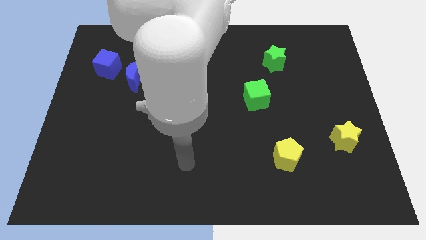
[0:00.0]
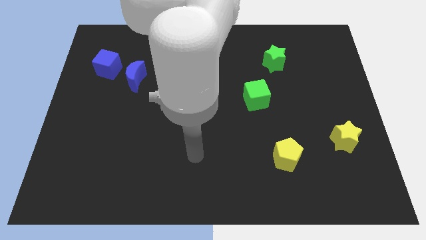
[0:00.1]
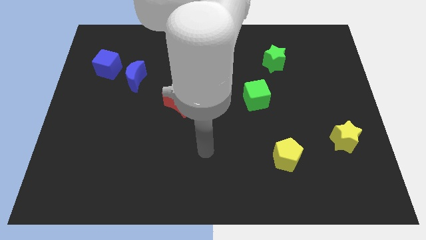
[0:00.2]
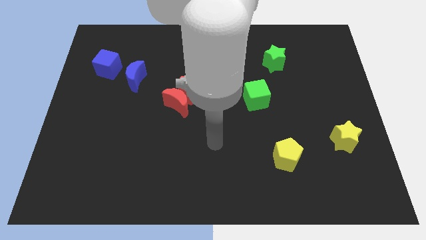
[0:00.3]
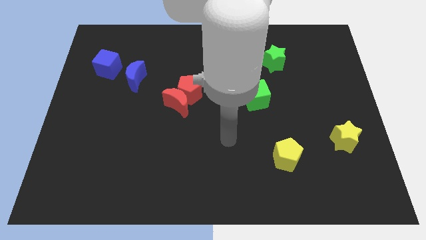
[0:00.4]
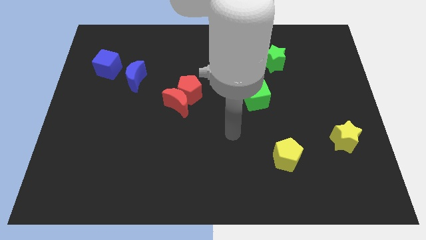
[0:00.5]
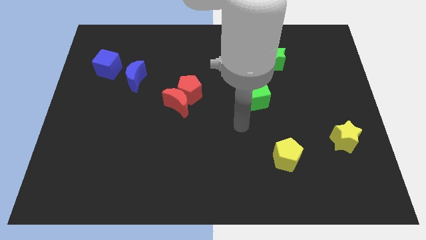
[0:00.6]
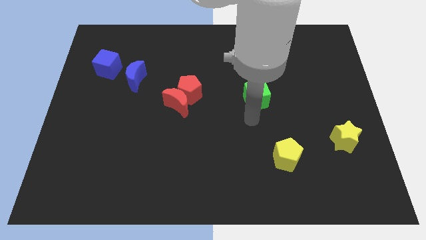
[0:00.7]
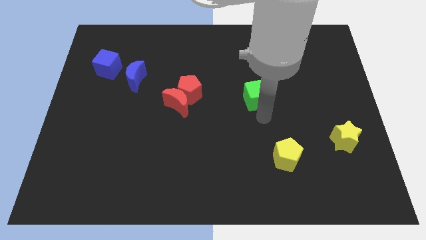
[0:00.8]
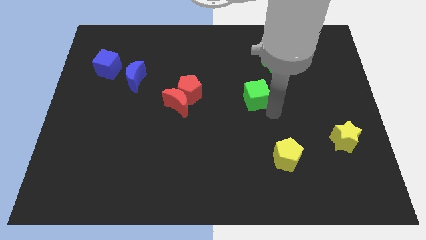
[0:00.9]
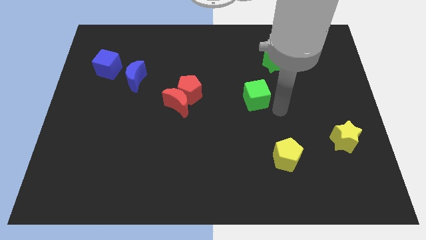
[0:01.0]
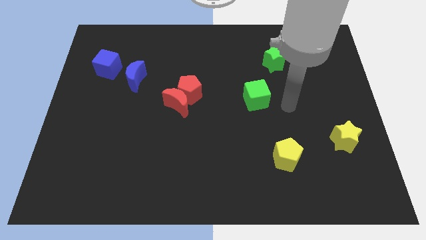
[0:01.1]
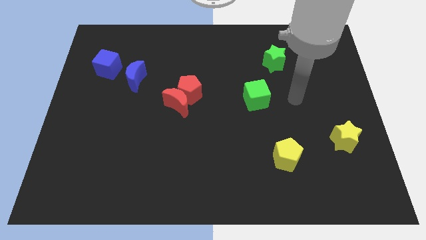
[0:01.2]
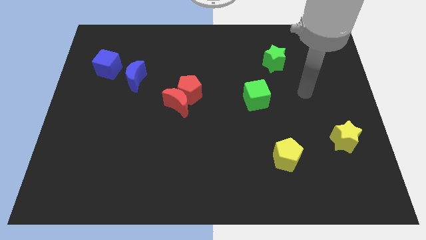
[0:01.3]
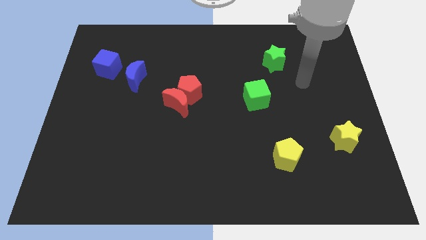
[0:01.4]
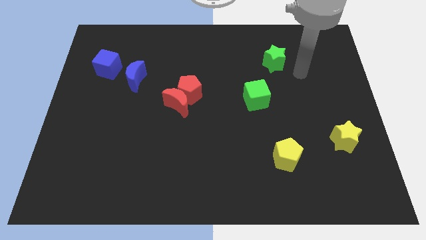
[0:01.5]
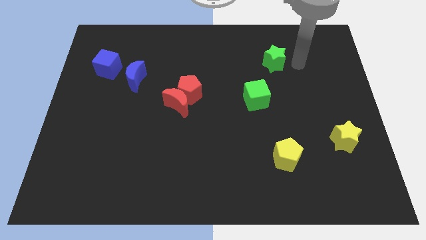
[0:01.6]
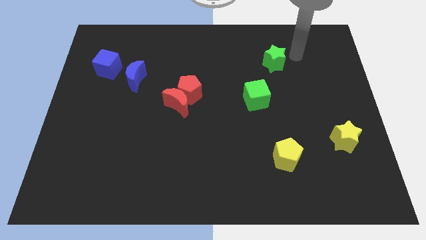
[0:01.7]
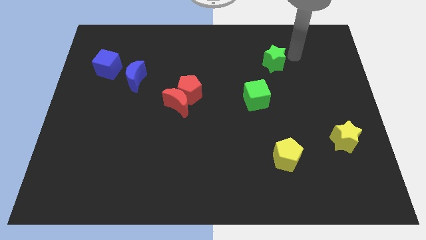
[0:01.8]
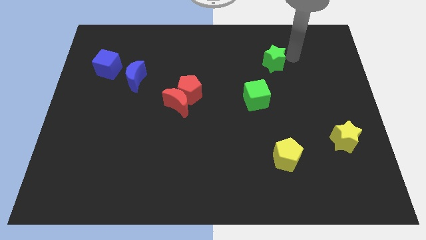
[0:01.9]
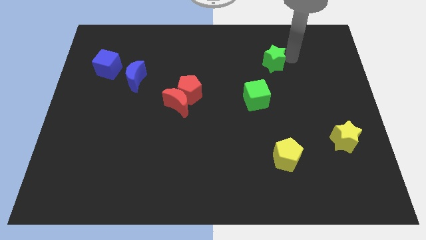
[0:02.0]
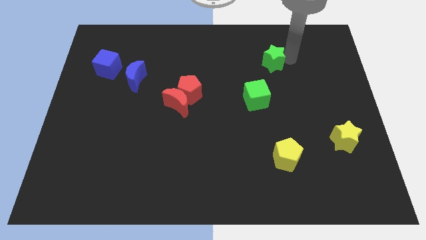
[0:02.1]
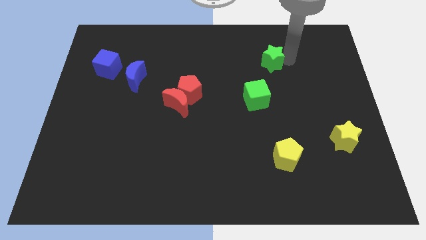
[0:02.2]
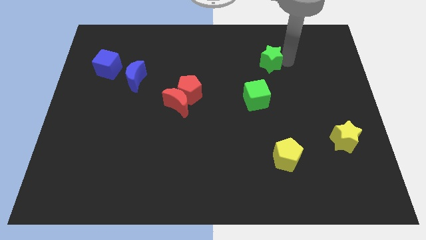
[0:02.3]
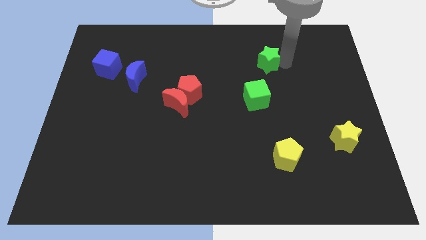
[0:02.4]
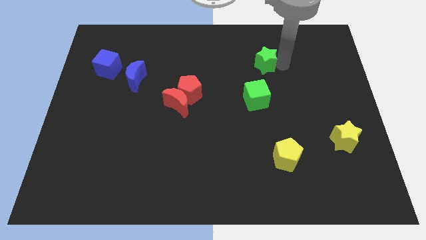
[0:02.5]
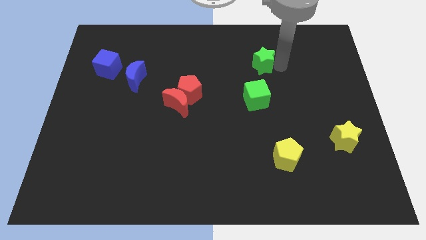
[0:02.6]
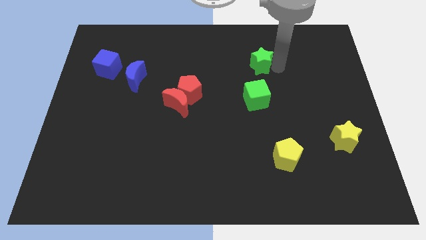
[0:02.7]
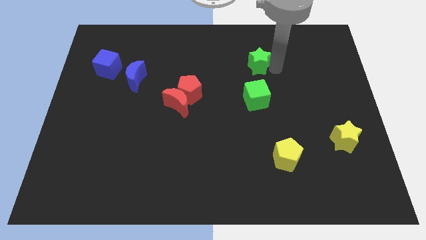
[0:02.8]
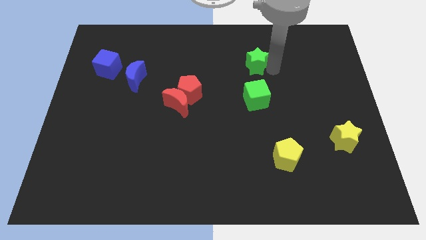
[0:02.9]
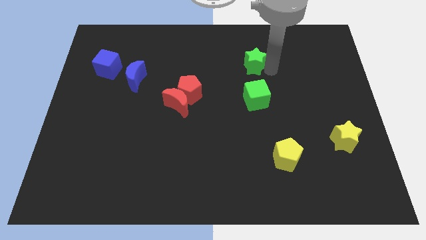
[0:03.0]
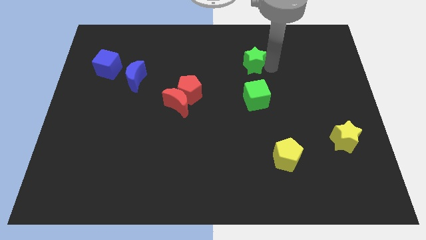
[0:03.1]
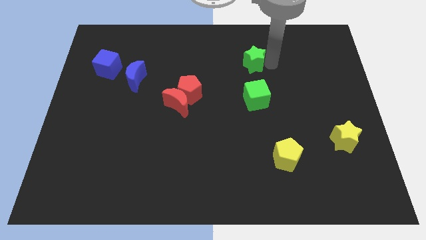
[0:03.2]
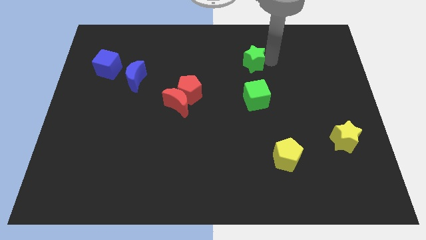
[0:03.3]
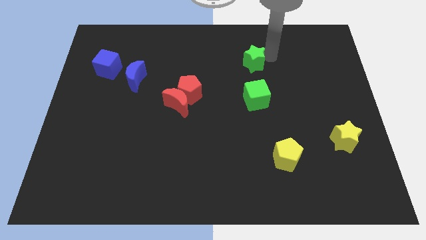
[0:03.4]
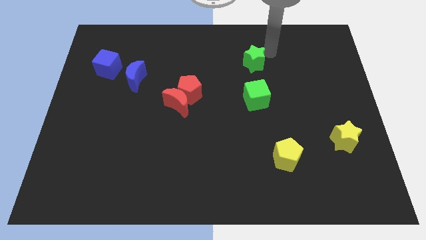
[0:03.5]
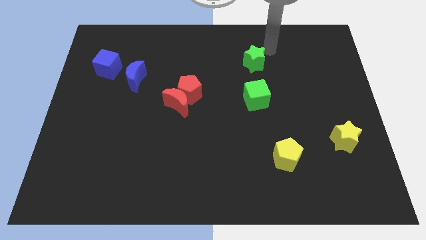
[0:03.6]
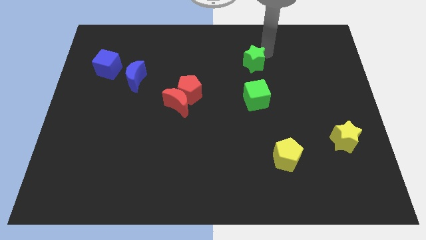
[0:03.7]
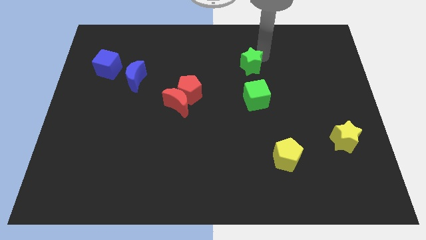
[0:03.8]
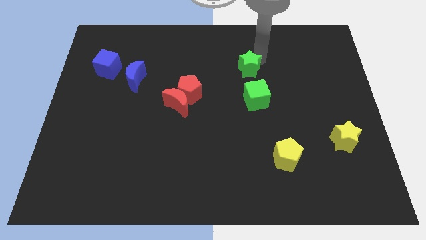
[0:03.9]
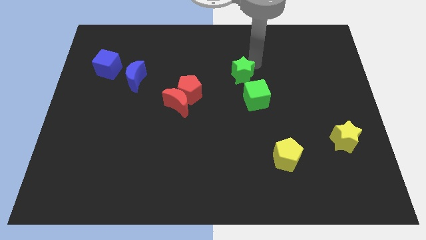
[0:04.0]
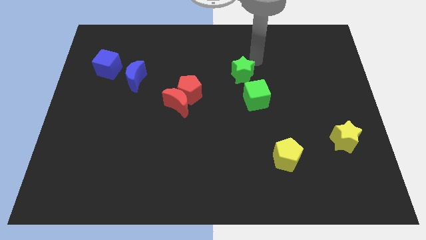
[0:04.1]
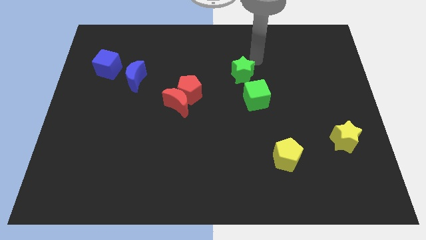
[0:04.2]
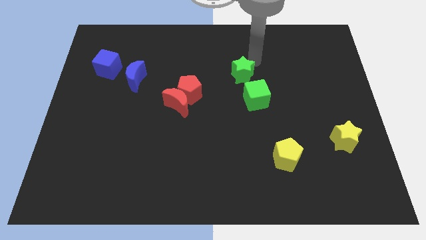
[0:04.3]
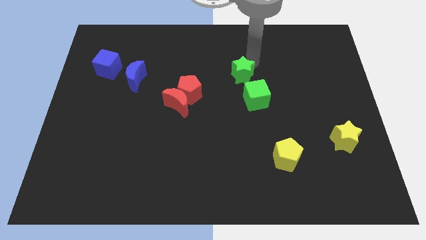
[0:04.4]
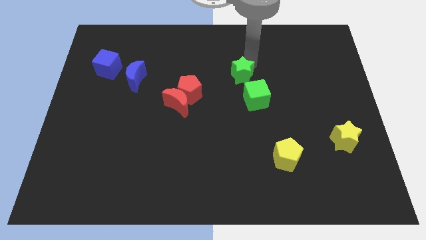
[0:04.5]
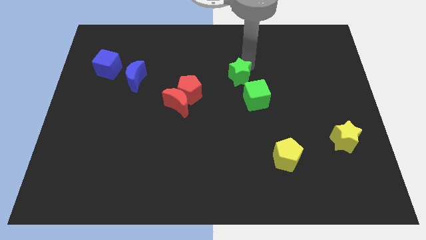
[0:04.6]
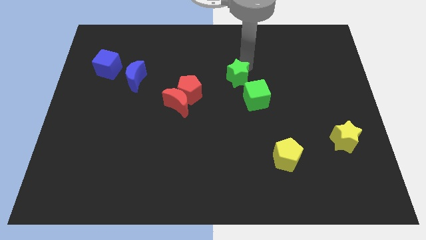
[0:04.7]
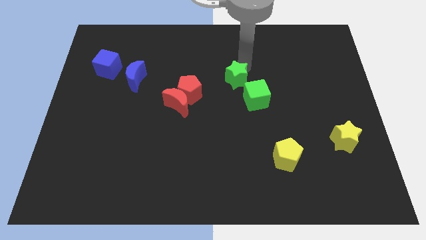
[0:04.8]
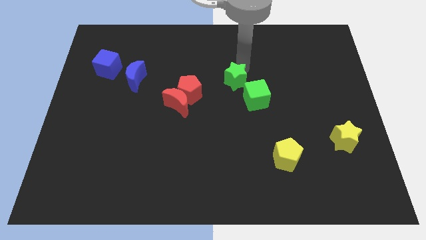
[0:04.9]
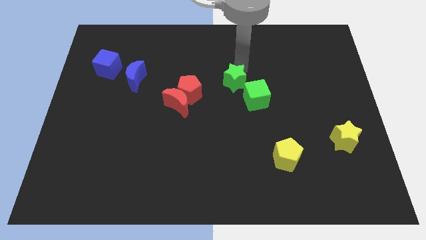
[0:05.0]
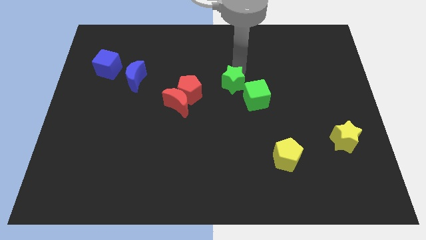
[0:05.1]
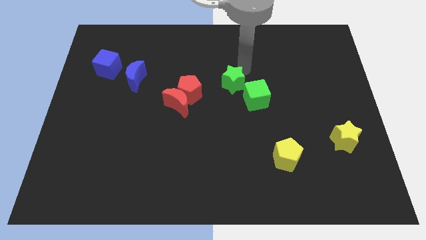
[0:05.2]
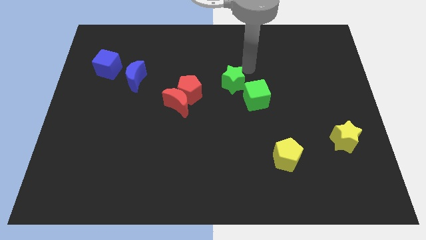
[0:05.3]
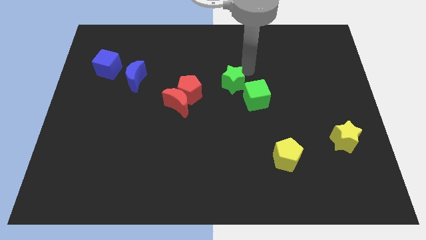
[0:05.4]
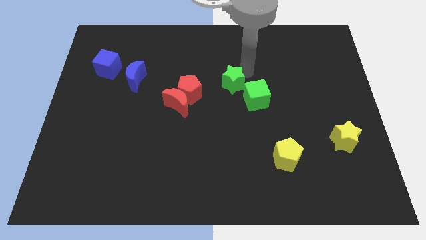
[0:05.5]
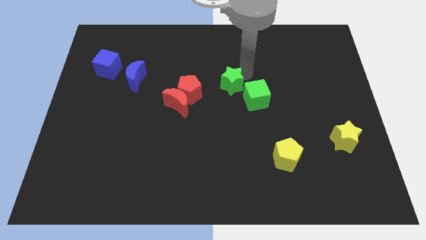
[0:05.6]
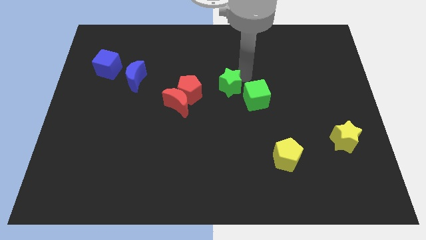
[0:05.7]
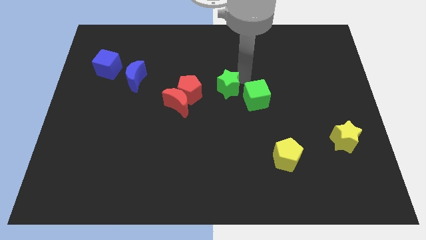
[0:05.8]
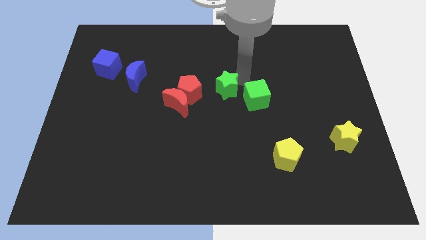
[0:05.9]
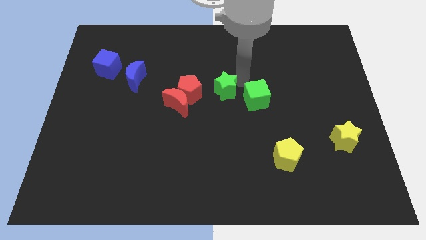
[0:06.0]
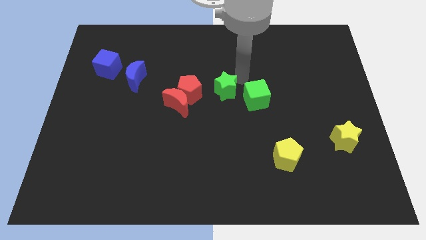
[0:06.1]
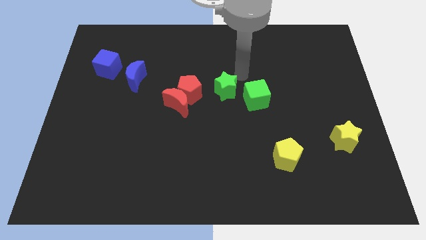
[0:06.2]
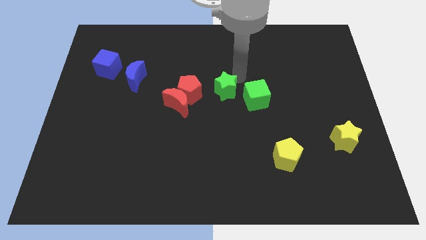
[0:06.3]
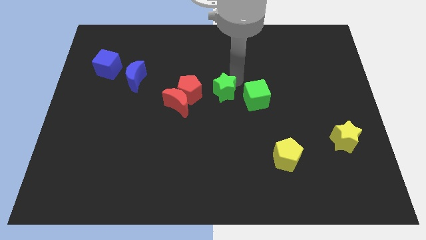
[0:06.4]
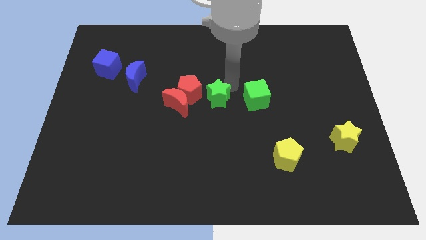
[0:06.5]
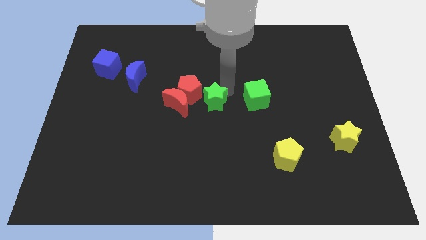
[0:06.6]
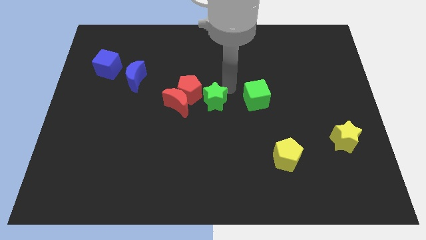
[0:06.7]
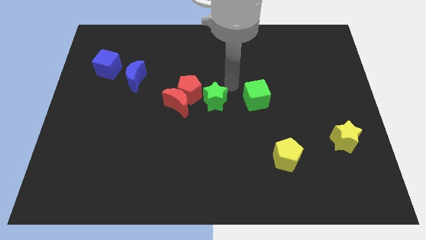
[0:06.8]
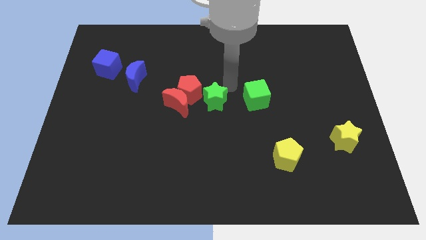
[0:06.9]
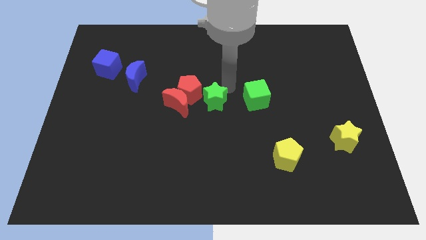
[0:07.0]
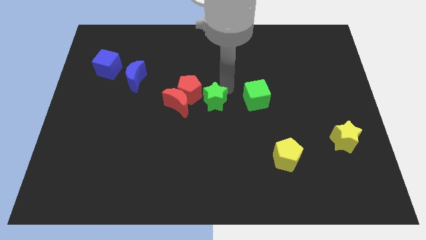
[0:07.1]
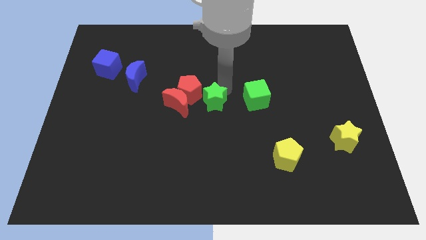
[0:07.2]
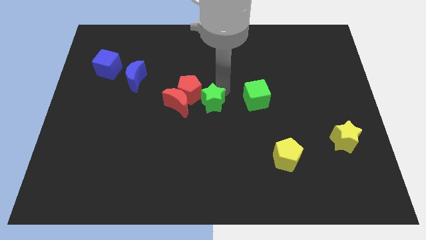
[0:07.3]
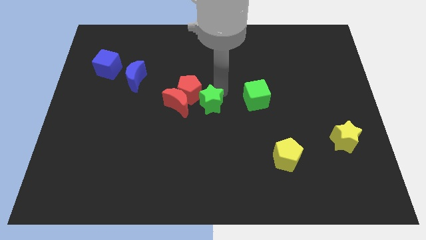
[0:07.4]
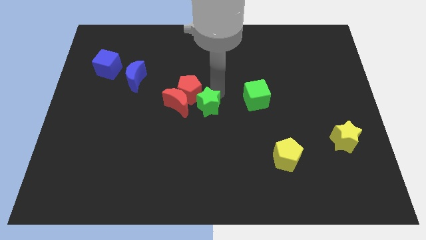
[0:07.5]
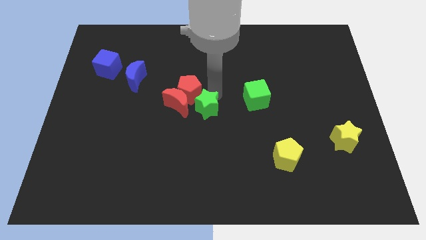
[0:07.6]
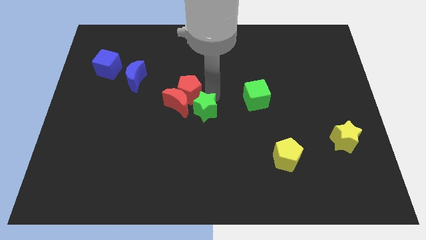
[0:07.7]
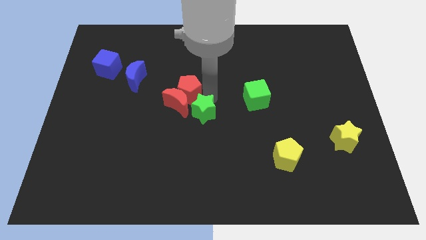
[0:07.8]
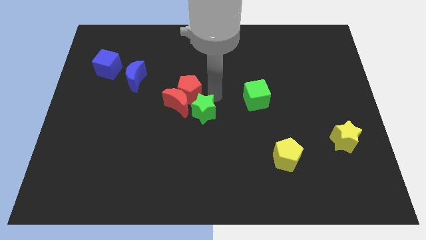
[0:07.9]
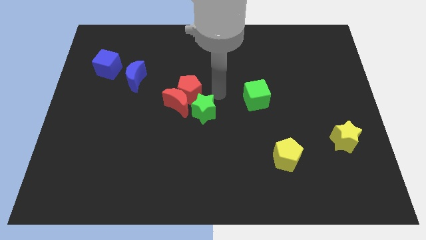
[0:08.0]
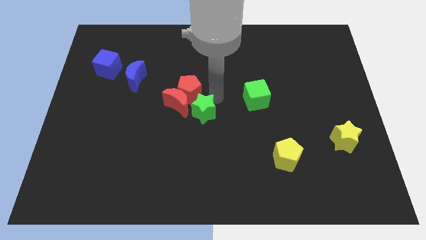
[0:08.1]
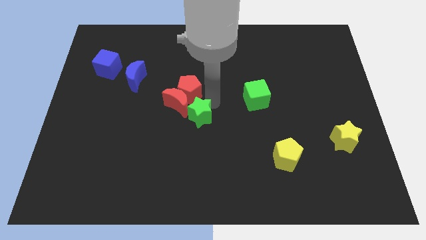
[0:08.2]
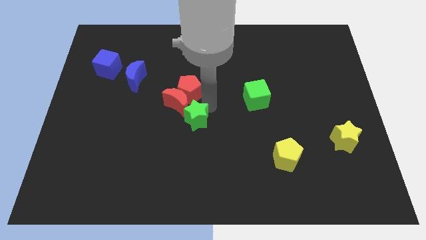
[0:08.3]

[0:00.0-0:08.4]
move the green star below the red moon
